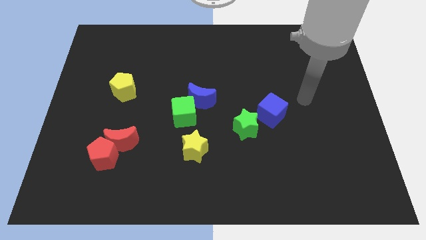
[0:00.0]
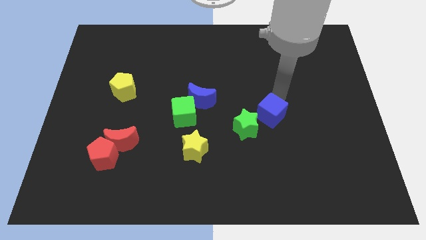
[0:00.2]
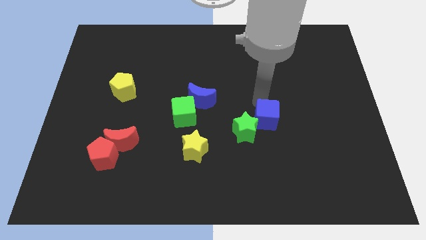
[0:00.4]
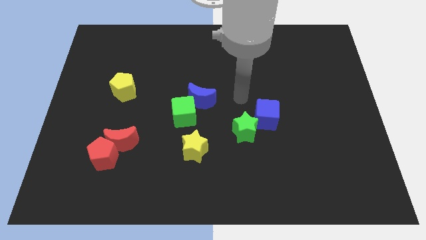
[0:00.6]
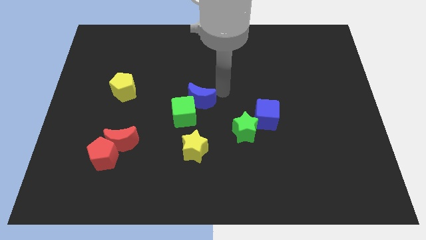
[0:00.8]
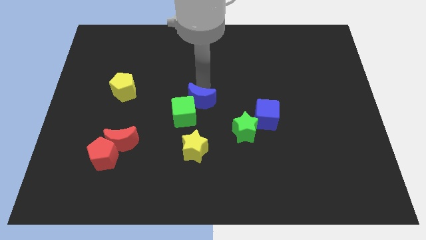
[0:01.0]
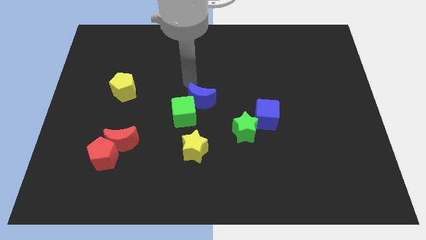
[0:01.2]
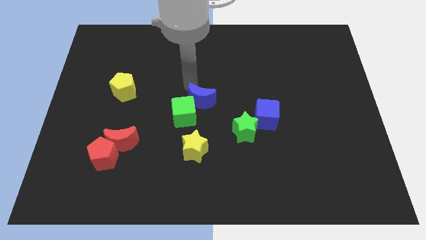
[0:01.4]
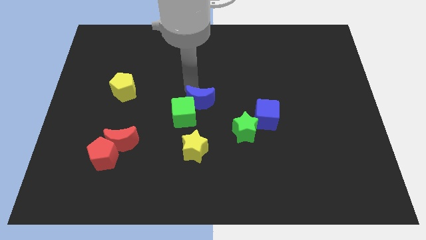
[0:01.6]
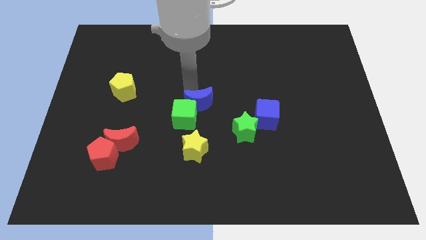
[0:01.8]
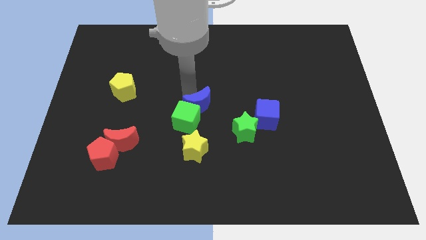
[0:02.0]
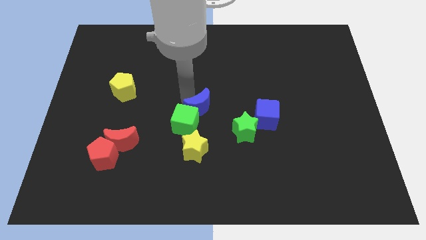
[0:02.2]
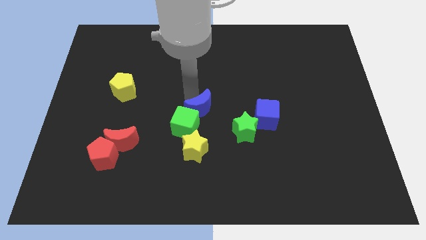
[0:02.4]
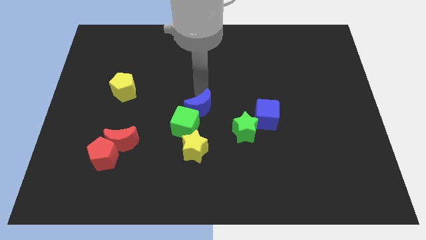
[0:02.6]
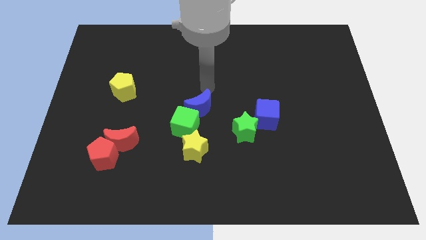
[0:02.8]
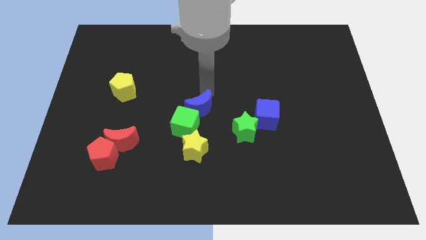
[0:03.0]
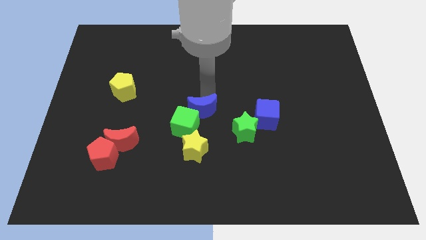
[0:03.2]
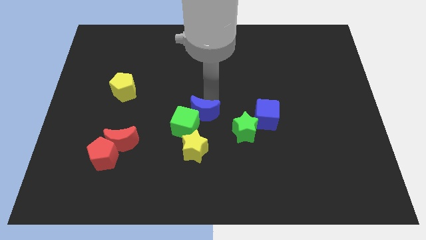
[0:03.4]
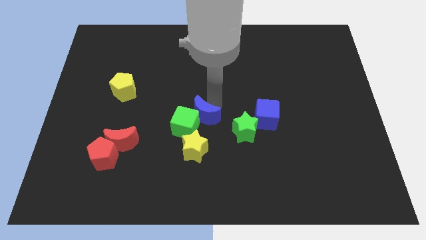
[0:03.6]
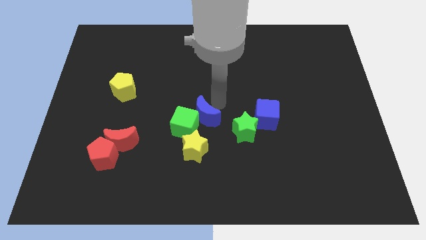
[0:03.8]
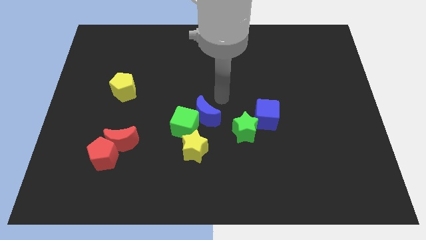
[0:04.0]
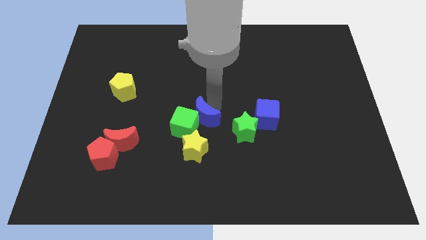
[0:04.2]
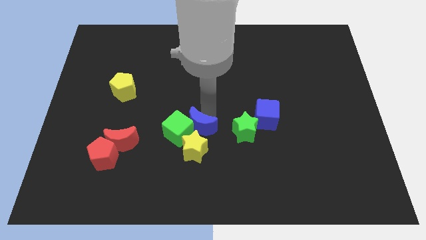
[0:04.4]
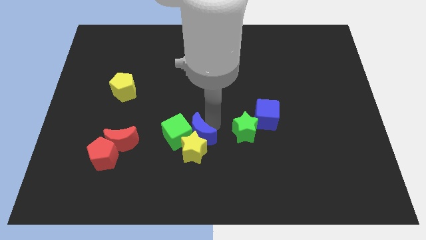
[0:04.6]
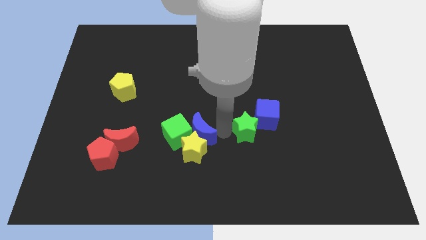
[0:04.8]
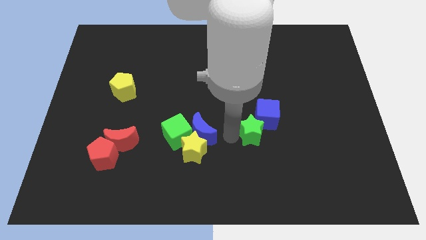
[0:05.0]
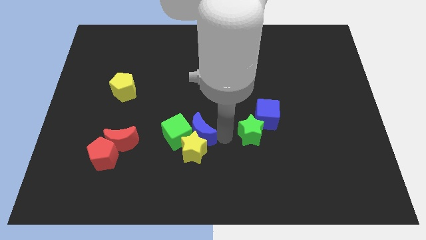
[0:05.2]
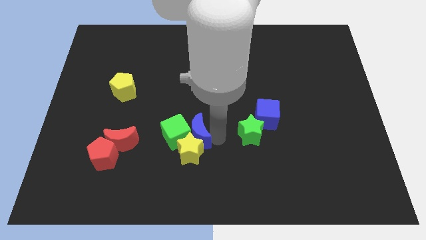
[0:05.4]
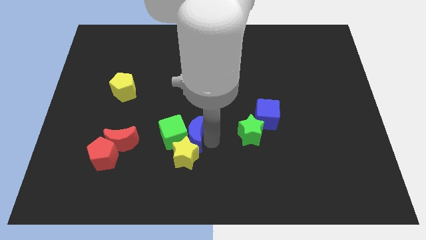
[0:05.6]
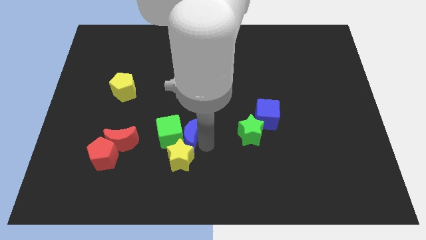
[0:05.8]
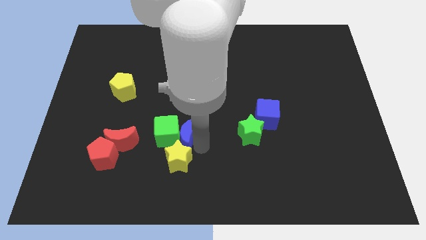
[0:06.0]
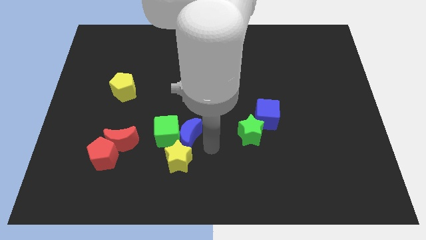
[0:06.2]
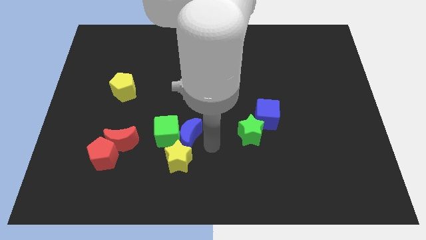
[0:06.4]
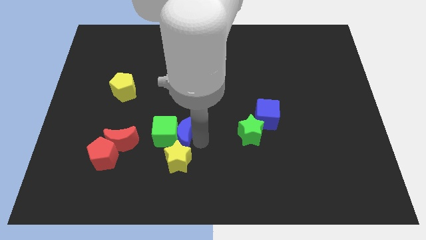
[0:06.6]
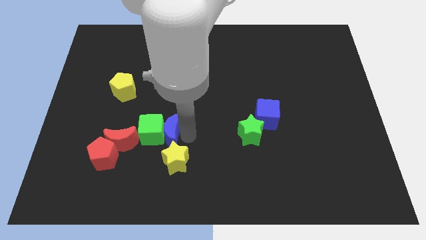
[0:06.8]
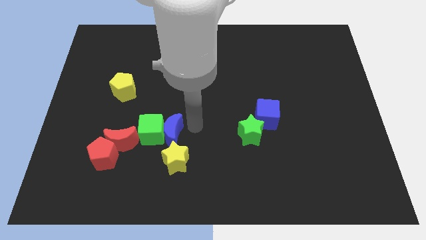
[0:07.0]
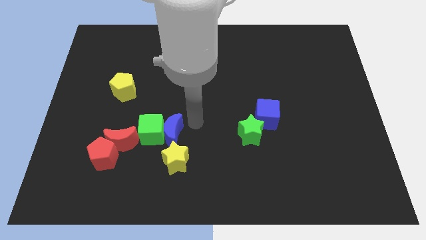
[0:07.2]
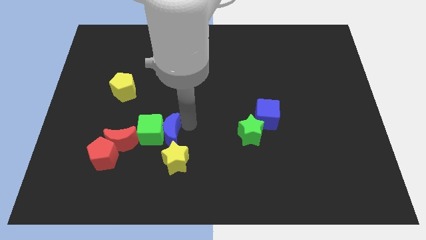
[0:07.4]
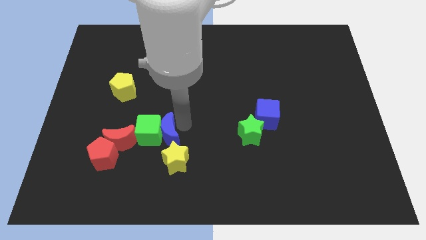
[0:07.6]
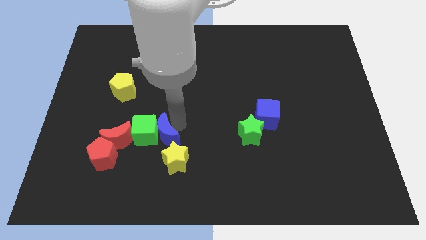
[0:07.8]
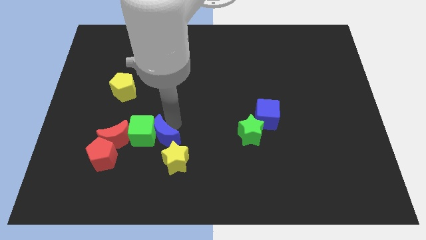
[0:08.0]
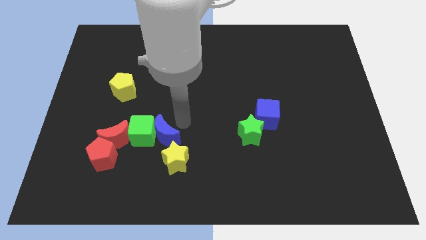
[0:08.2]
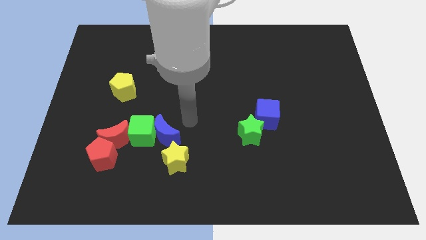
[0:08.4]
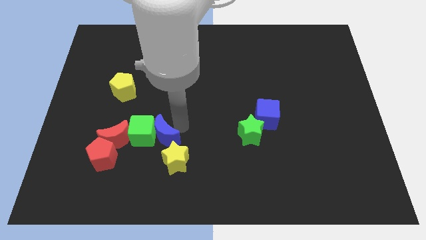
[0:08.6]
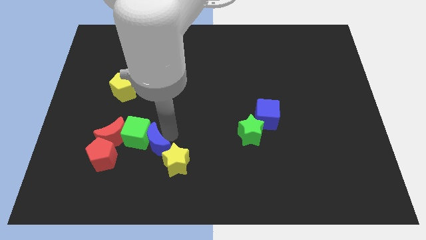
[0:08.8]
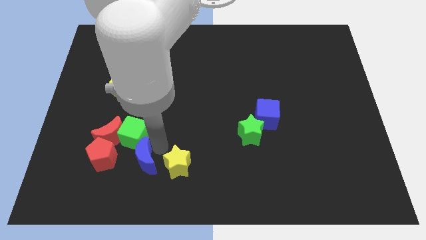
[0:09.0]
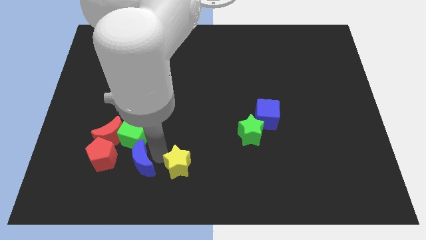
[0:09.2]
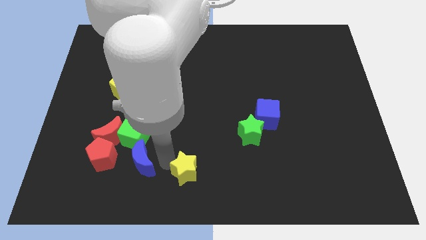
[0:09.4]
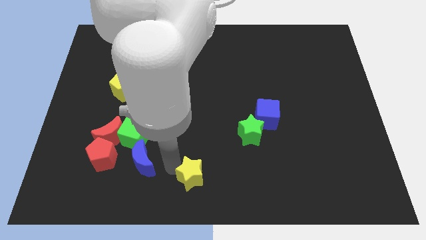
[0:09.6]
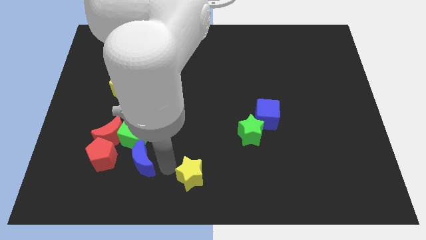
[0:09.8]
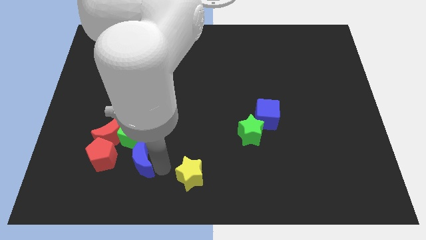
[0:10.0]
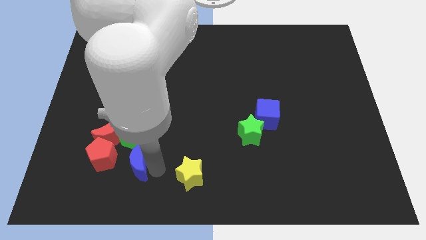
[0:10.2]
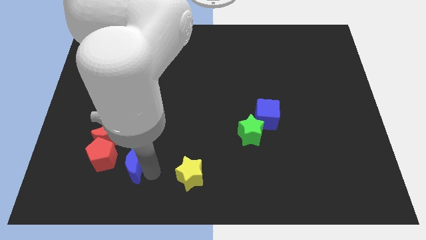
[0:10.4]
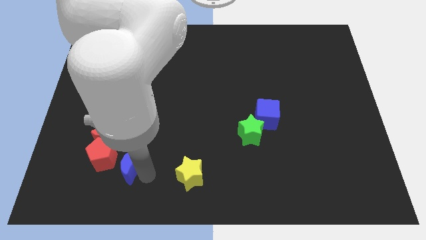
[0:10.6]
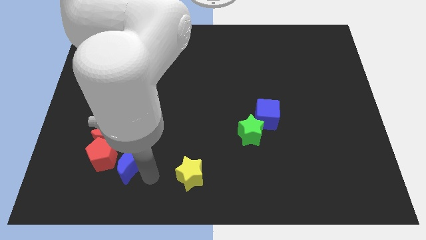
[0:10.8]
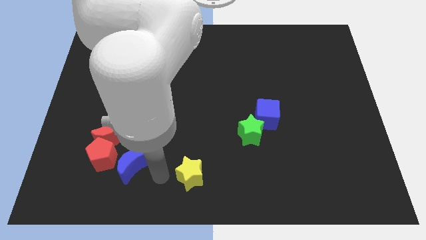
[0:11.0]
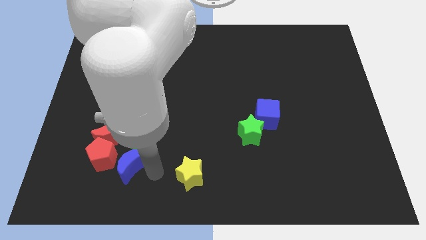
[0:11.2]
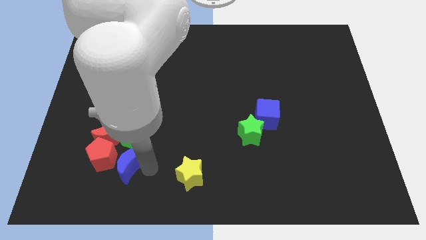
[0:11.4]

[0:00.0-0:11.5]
push the blue moon to the red pentagon
